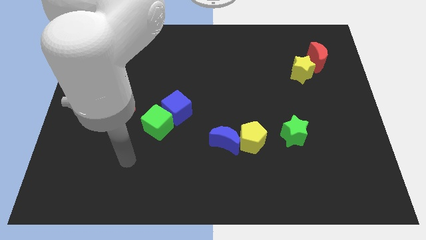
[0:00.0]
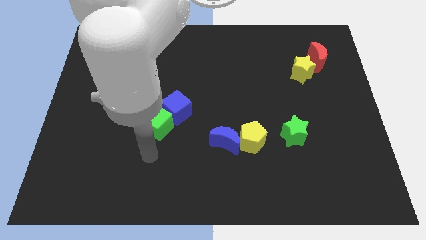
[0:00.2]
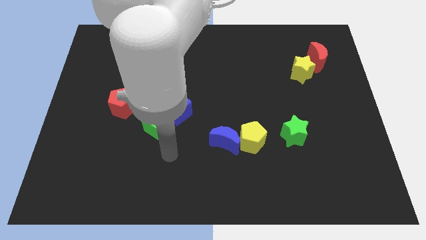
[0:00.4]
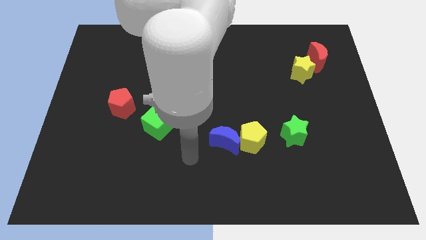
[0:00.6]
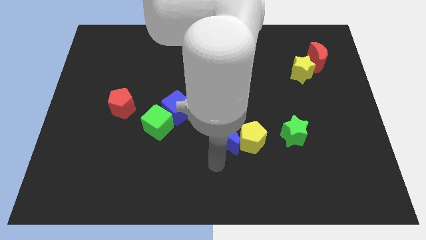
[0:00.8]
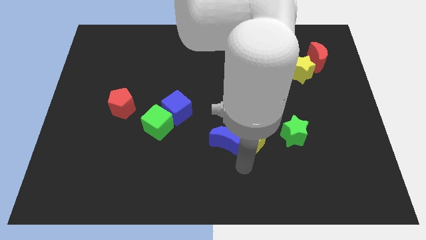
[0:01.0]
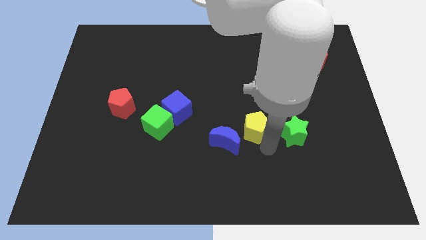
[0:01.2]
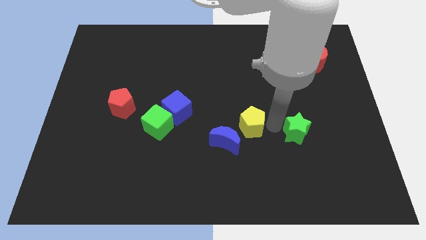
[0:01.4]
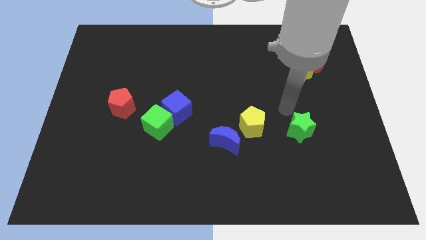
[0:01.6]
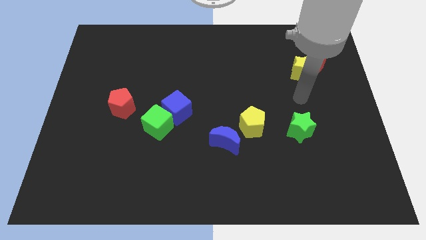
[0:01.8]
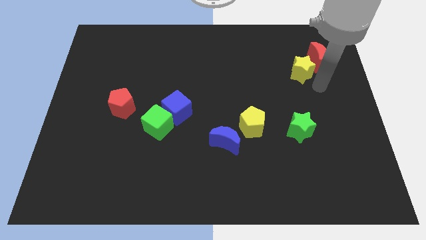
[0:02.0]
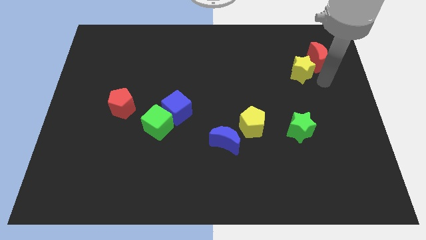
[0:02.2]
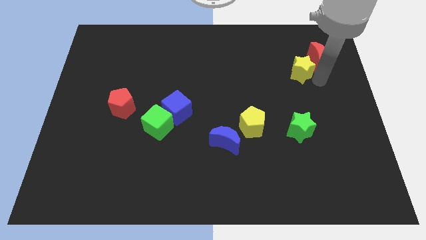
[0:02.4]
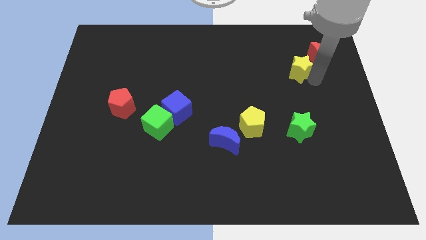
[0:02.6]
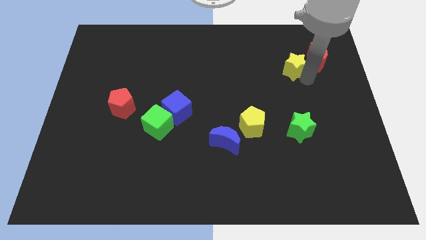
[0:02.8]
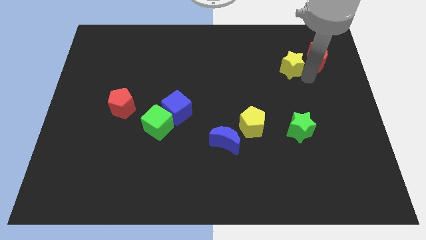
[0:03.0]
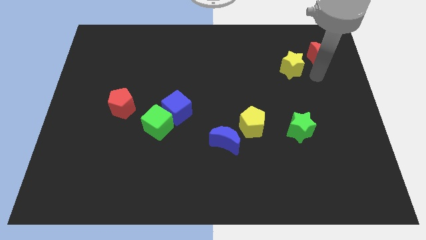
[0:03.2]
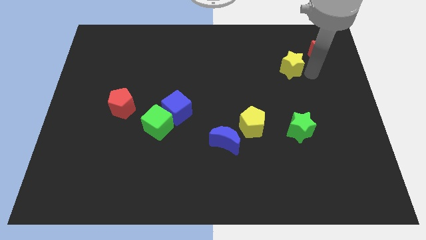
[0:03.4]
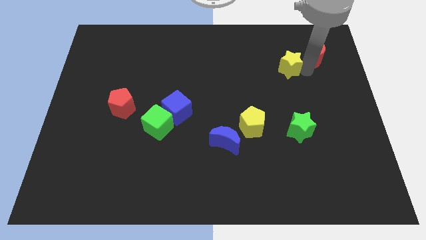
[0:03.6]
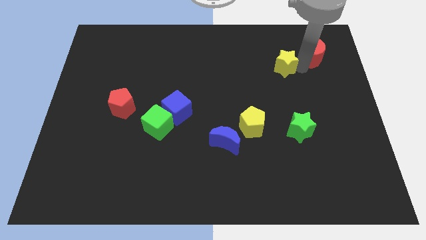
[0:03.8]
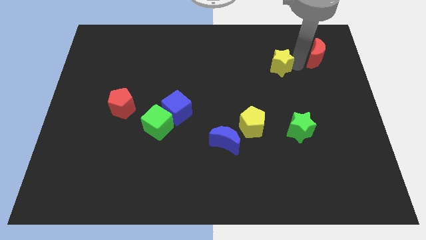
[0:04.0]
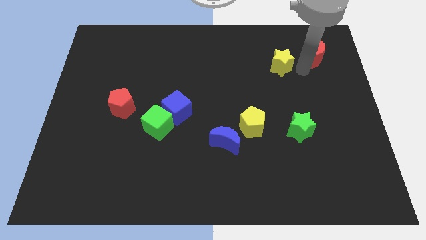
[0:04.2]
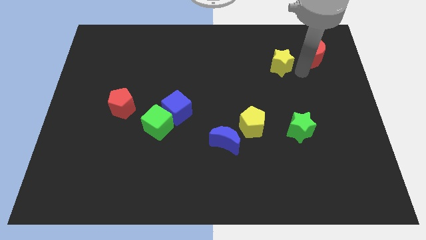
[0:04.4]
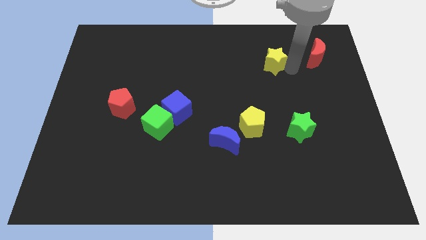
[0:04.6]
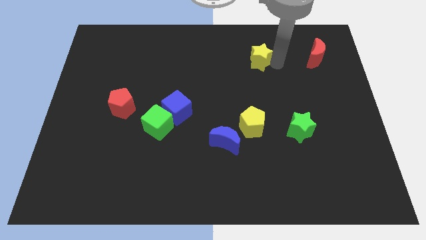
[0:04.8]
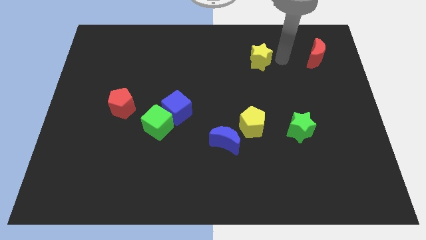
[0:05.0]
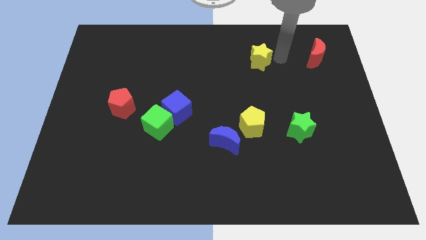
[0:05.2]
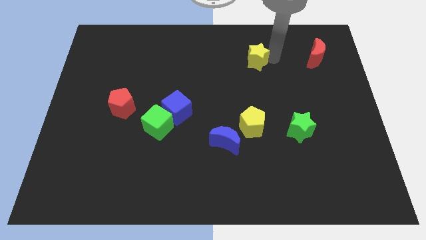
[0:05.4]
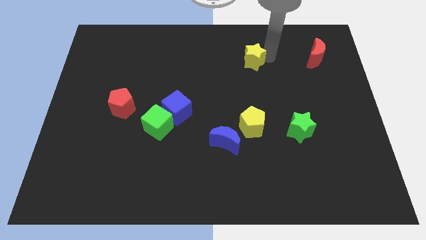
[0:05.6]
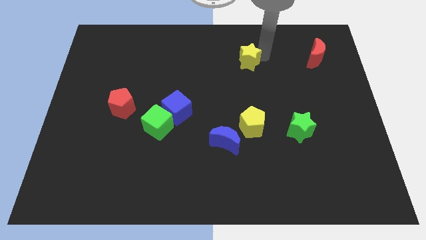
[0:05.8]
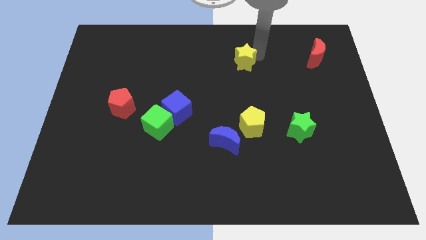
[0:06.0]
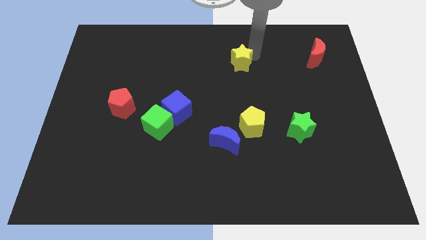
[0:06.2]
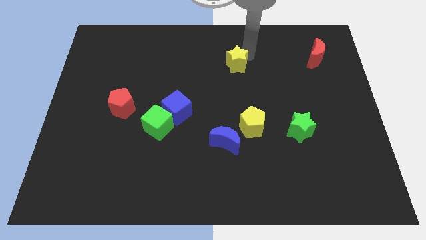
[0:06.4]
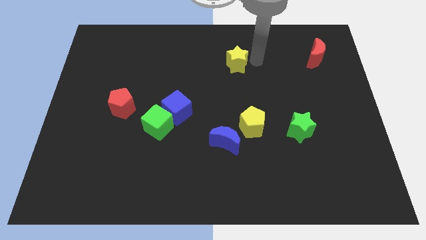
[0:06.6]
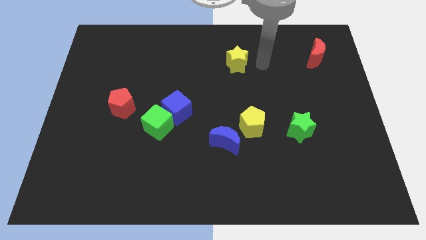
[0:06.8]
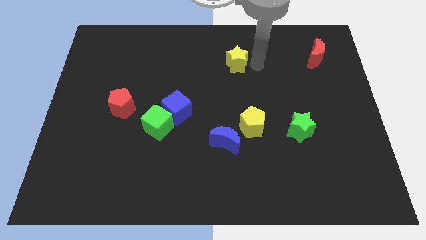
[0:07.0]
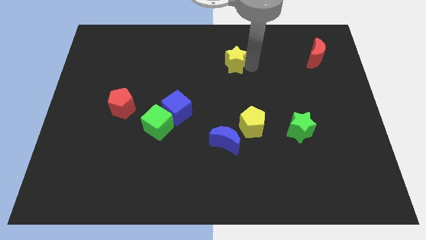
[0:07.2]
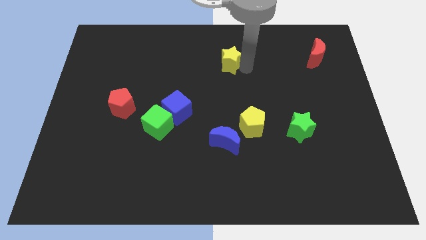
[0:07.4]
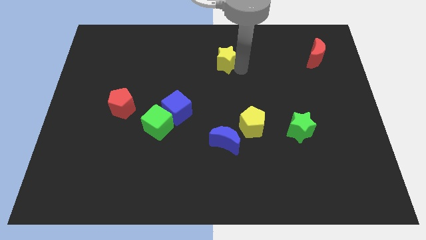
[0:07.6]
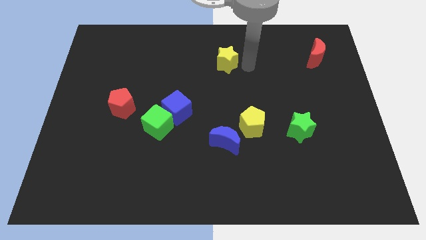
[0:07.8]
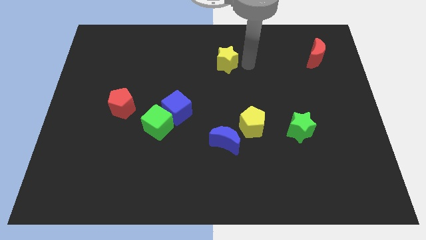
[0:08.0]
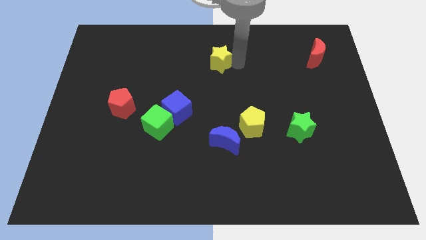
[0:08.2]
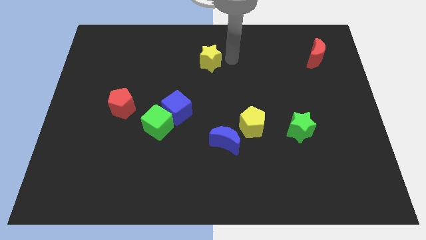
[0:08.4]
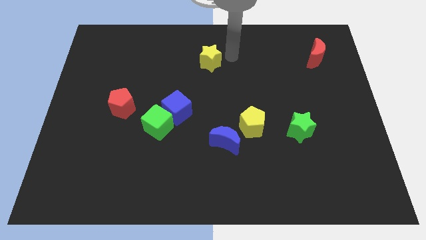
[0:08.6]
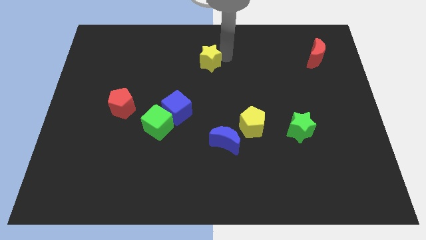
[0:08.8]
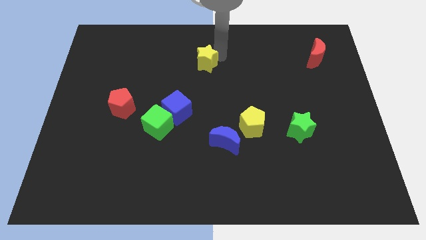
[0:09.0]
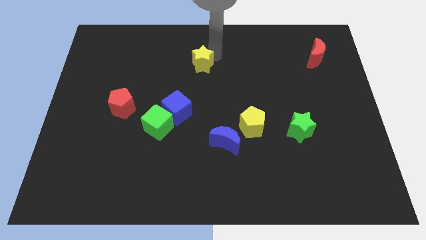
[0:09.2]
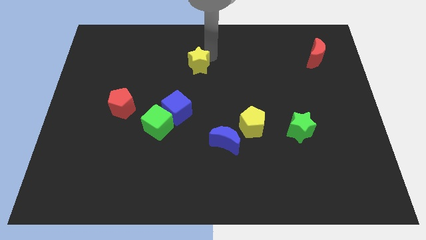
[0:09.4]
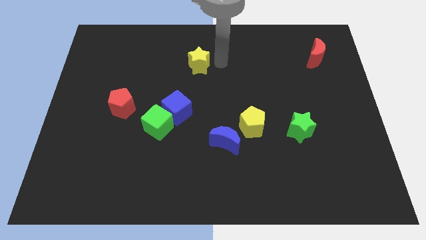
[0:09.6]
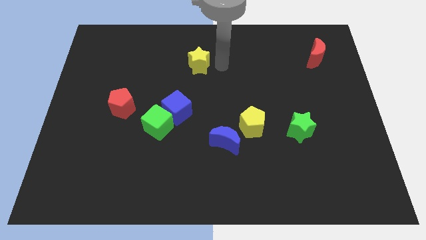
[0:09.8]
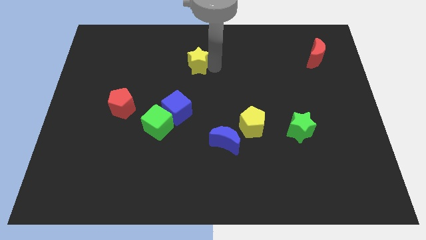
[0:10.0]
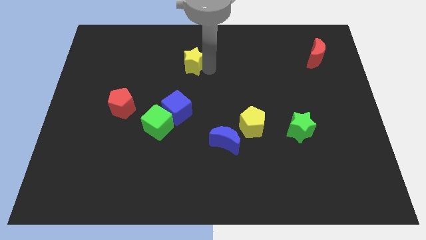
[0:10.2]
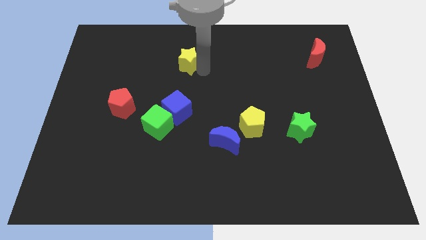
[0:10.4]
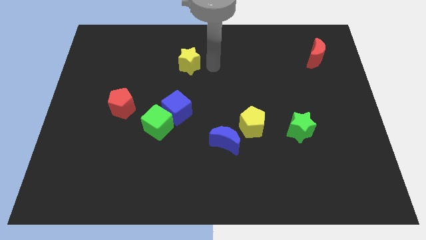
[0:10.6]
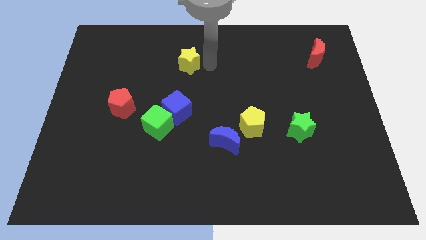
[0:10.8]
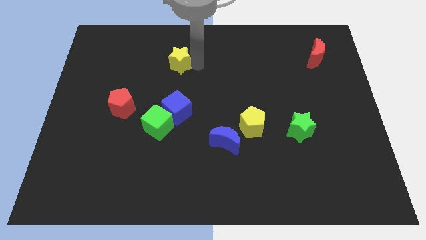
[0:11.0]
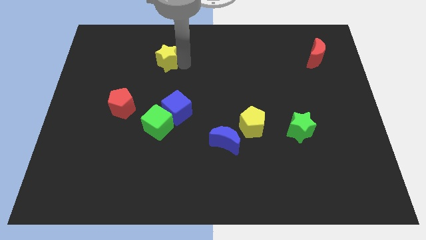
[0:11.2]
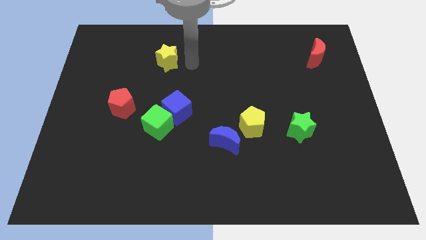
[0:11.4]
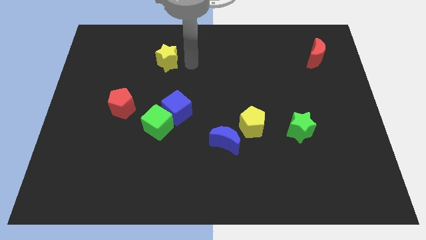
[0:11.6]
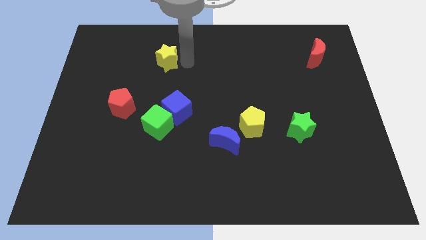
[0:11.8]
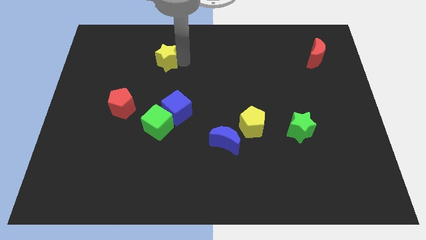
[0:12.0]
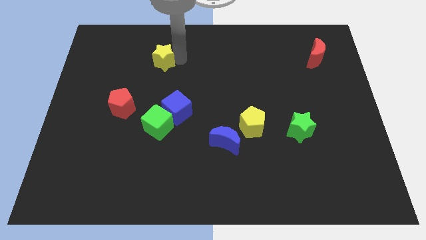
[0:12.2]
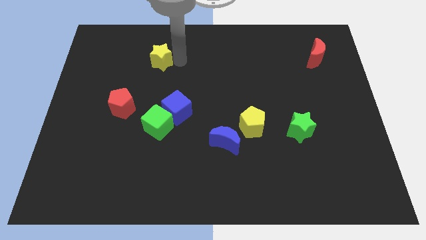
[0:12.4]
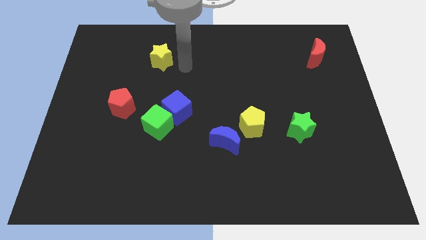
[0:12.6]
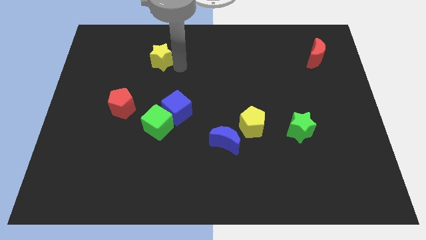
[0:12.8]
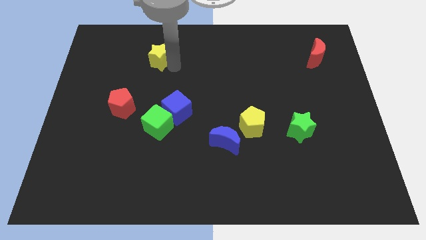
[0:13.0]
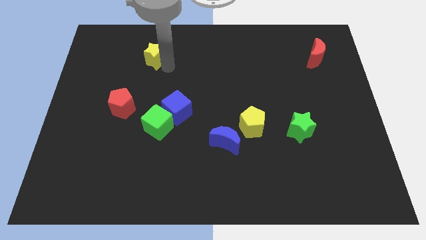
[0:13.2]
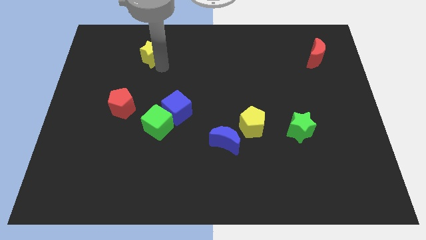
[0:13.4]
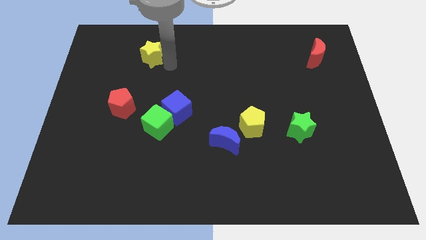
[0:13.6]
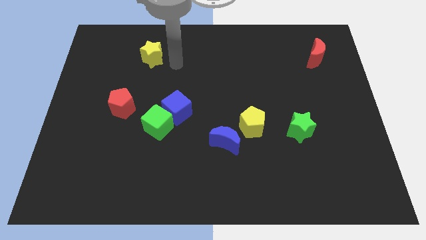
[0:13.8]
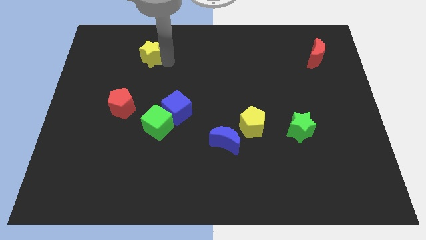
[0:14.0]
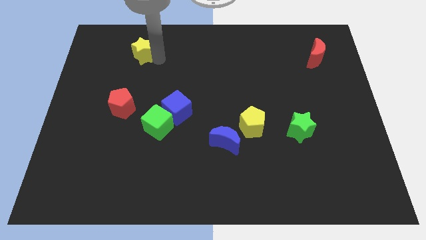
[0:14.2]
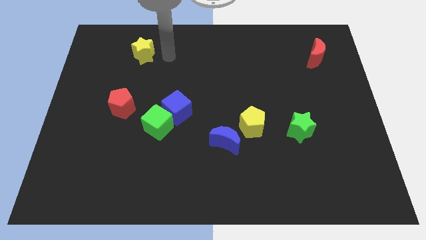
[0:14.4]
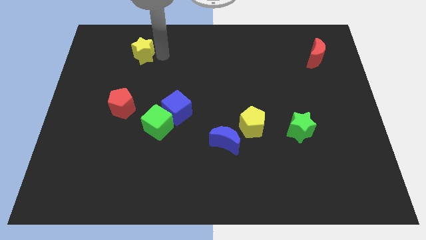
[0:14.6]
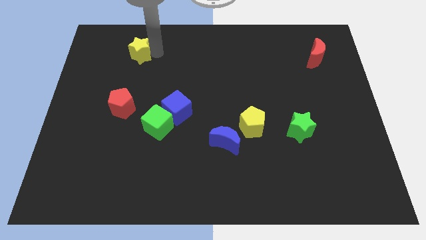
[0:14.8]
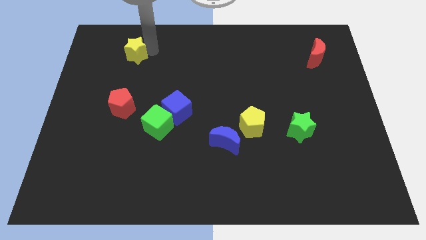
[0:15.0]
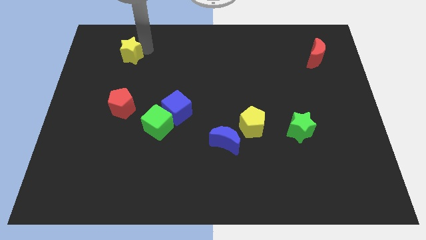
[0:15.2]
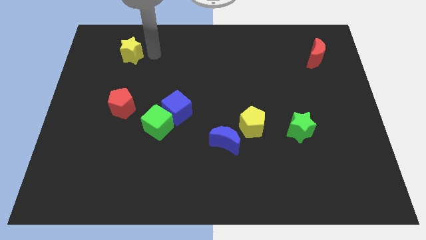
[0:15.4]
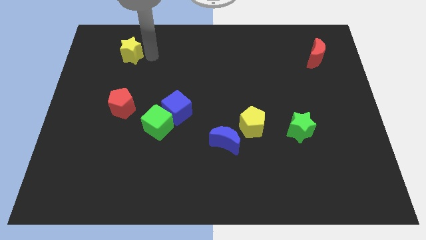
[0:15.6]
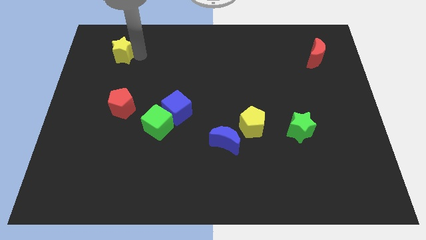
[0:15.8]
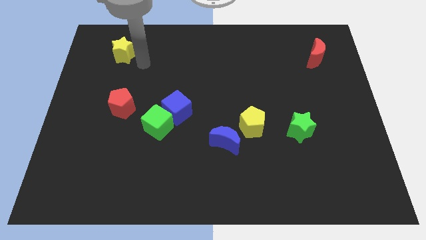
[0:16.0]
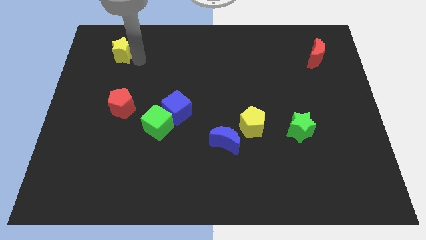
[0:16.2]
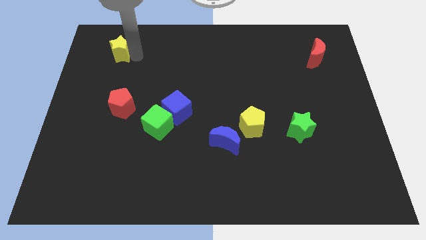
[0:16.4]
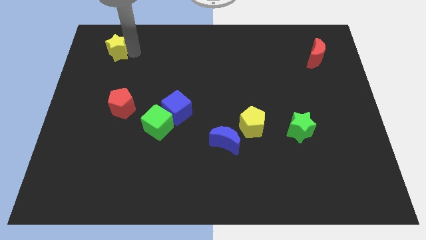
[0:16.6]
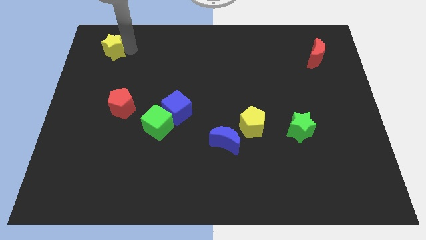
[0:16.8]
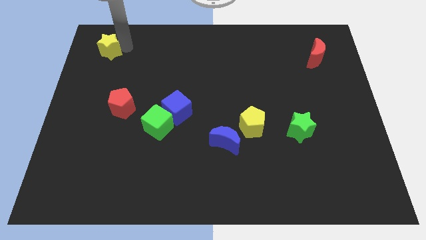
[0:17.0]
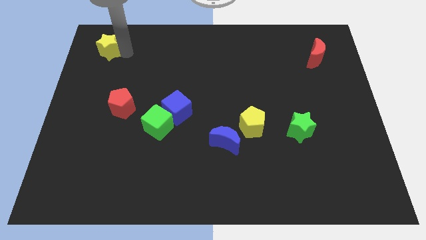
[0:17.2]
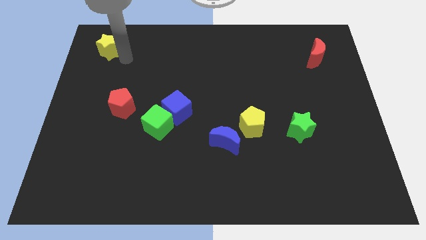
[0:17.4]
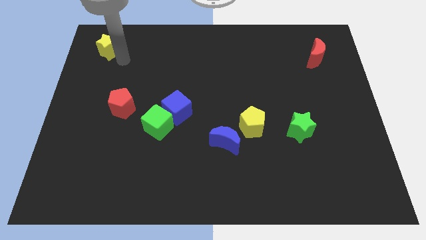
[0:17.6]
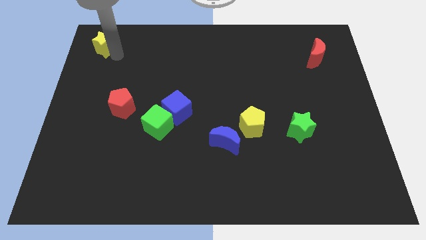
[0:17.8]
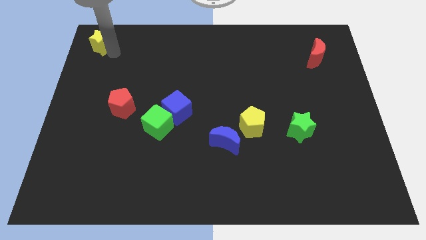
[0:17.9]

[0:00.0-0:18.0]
move the yellow star to the top left
